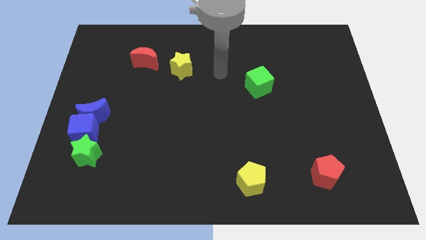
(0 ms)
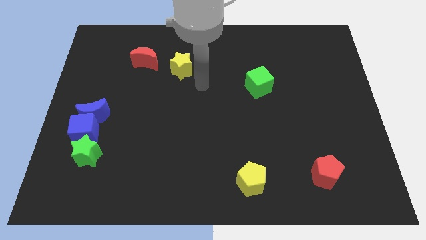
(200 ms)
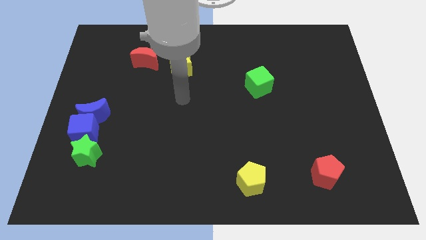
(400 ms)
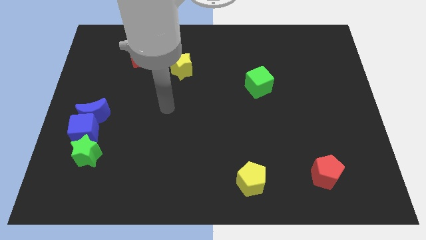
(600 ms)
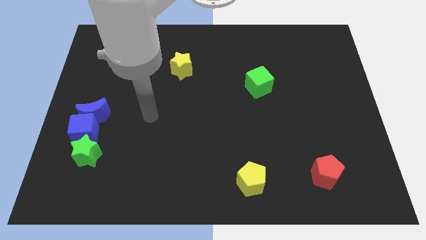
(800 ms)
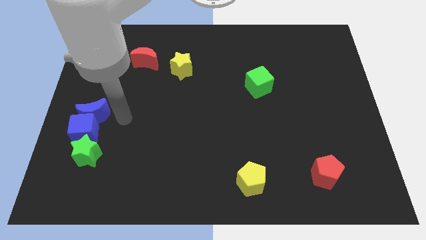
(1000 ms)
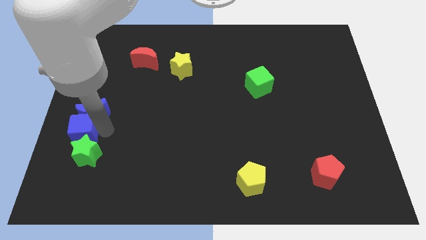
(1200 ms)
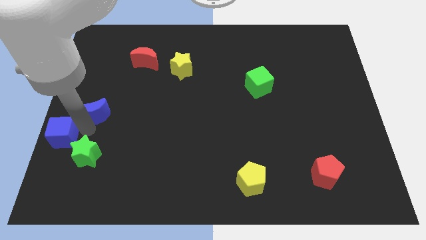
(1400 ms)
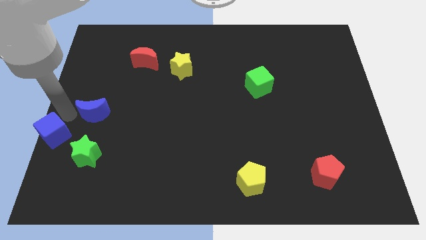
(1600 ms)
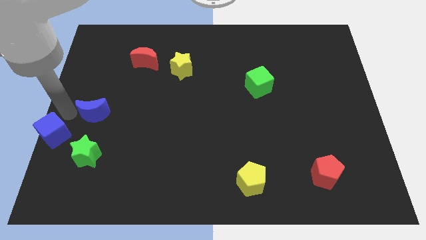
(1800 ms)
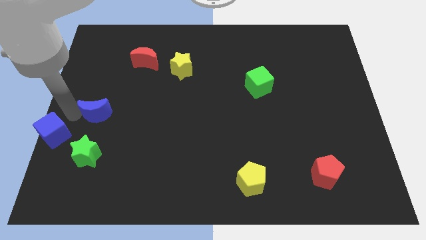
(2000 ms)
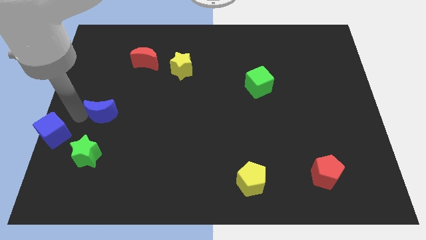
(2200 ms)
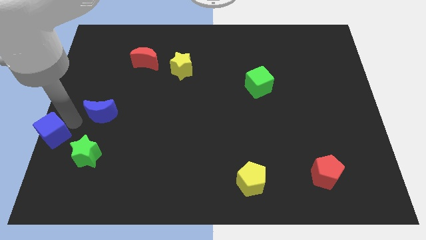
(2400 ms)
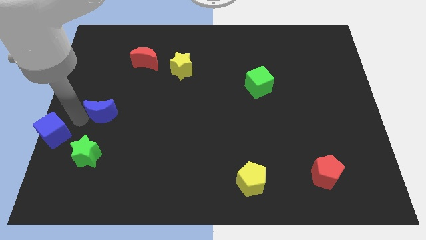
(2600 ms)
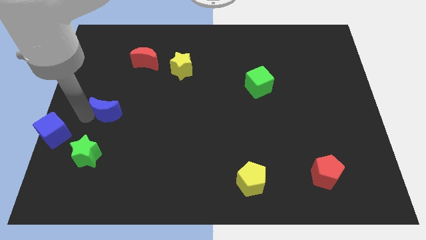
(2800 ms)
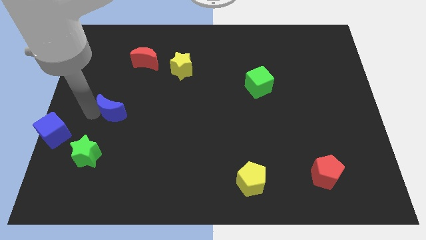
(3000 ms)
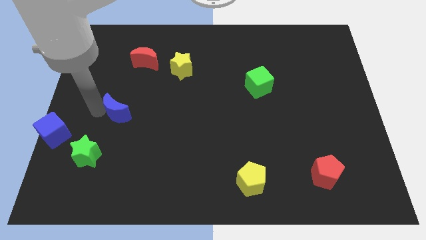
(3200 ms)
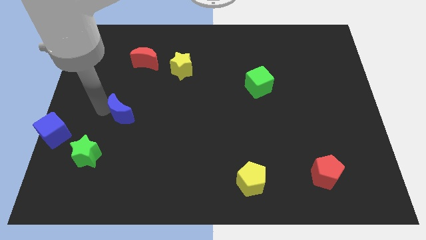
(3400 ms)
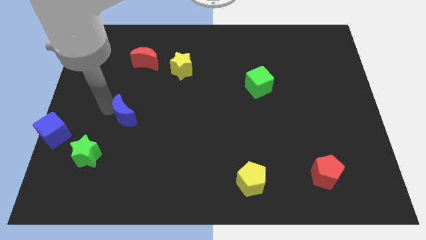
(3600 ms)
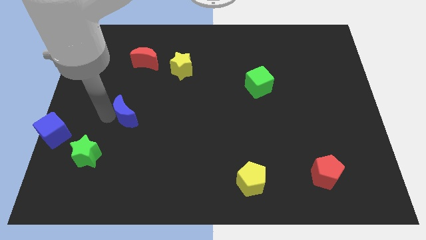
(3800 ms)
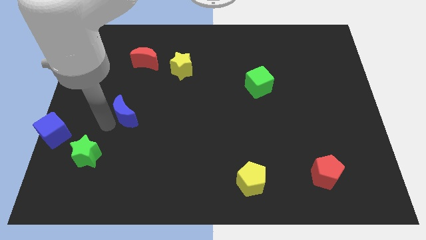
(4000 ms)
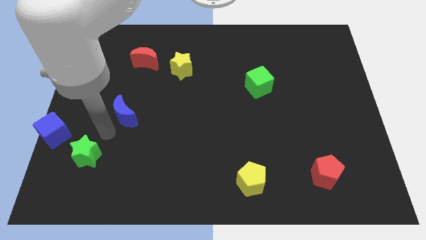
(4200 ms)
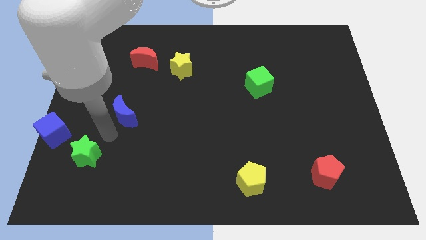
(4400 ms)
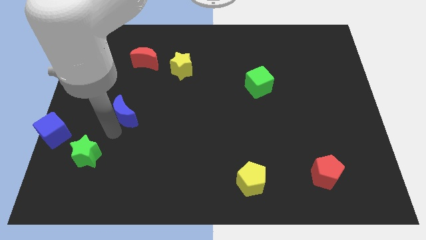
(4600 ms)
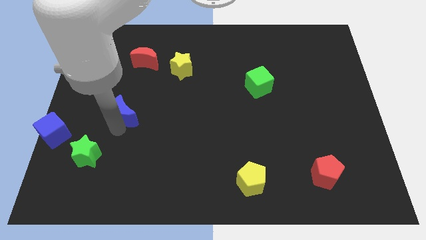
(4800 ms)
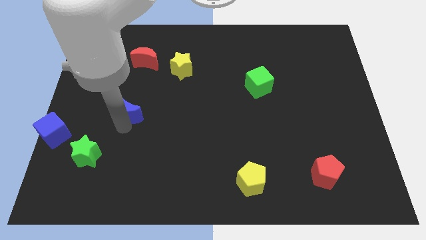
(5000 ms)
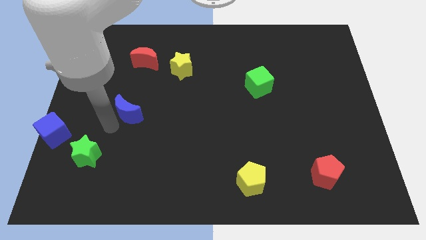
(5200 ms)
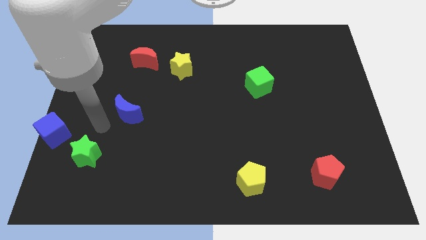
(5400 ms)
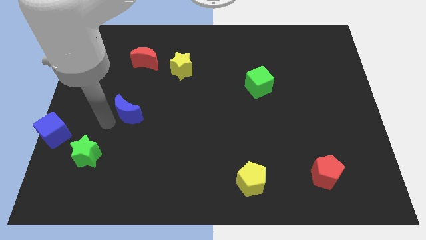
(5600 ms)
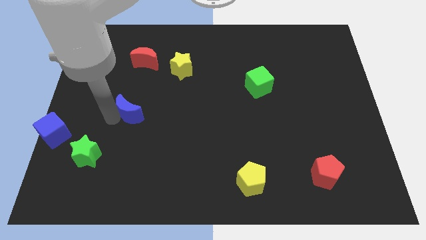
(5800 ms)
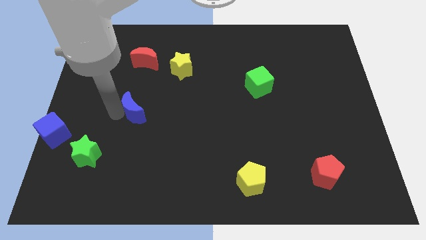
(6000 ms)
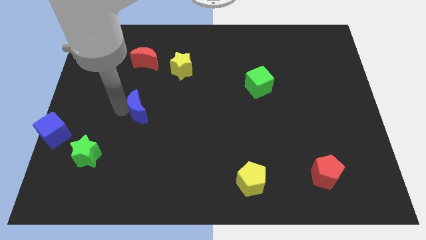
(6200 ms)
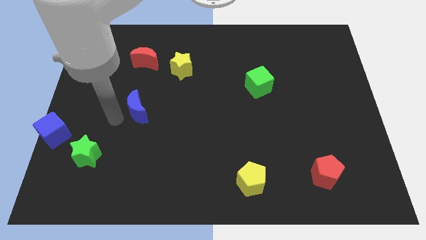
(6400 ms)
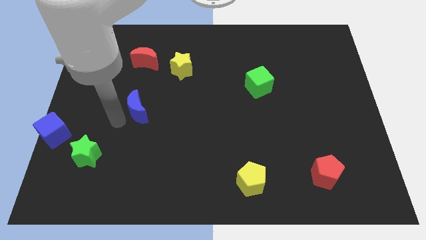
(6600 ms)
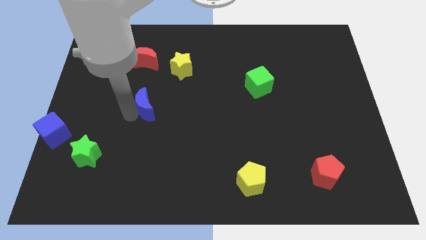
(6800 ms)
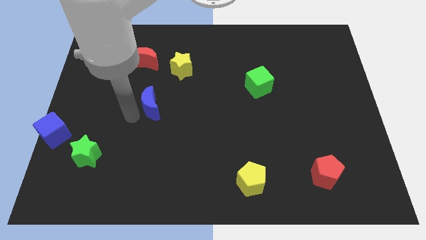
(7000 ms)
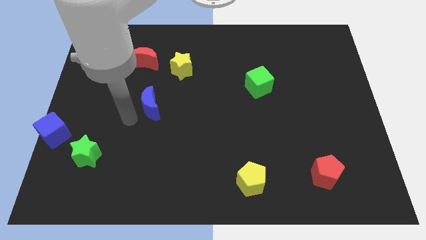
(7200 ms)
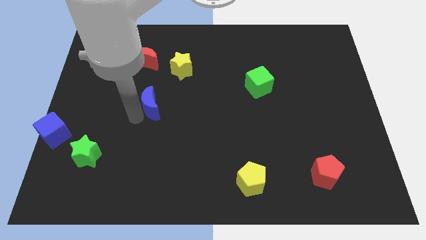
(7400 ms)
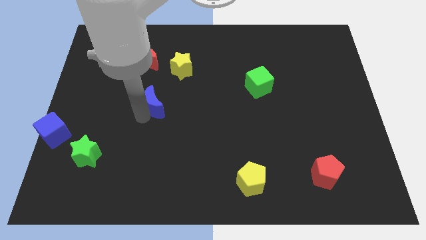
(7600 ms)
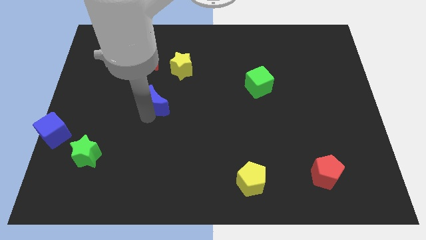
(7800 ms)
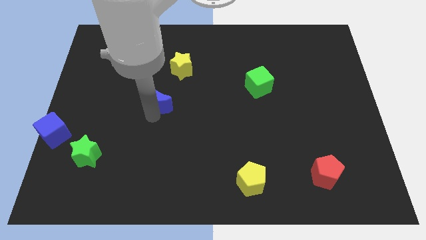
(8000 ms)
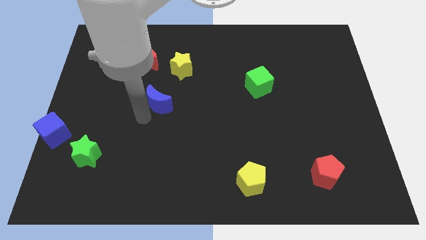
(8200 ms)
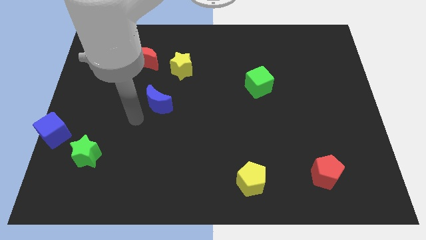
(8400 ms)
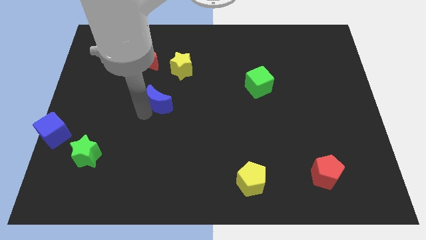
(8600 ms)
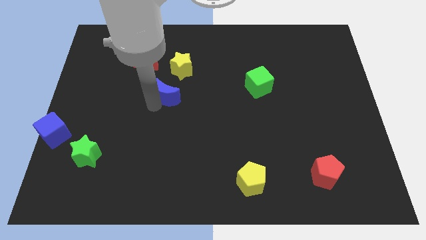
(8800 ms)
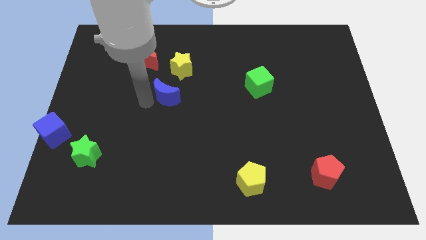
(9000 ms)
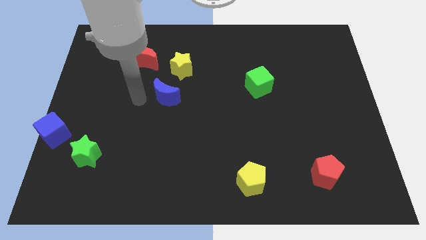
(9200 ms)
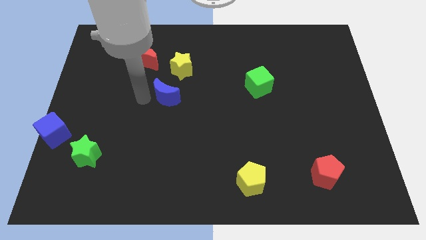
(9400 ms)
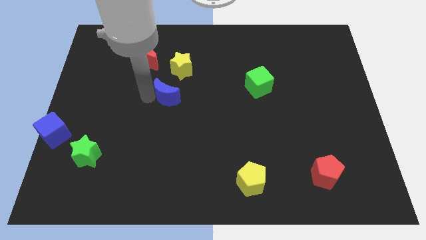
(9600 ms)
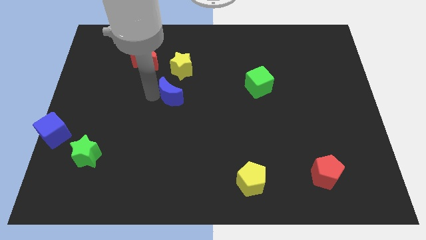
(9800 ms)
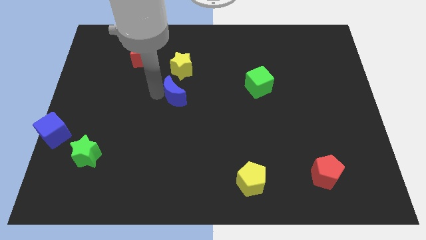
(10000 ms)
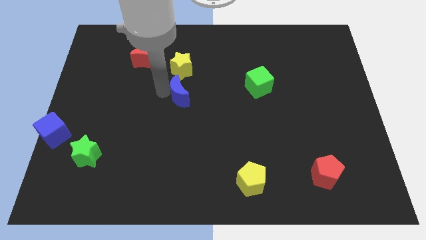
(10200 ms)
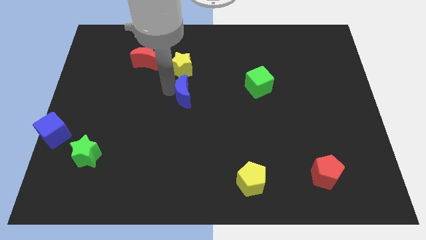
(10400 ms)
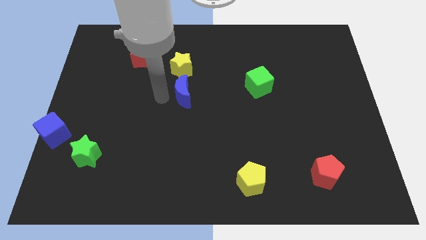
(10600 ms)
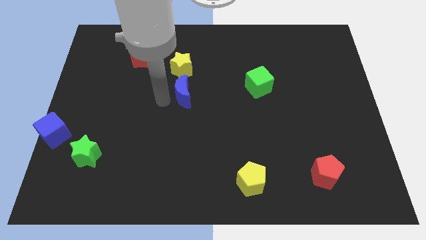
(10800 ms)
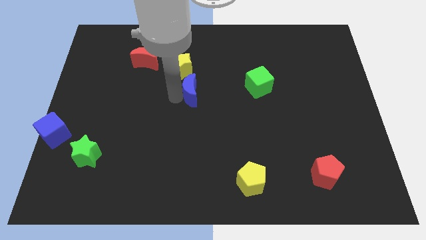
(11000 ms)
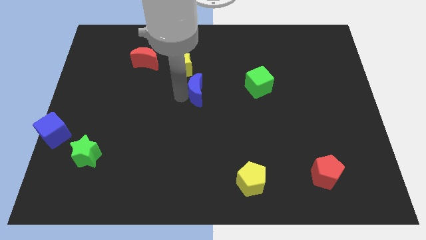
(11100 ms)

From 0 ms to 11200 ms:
move the blue moon left of the green cube

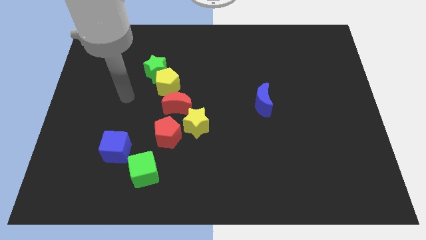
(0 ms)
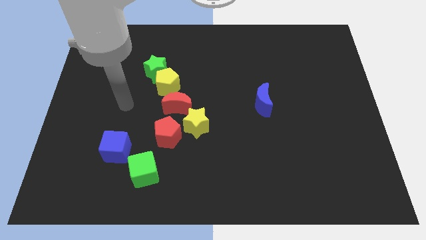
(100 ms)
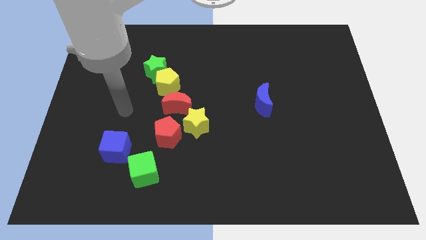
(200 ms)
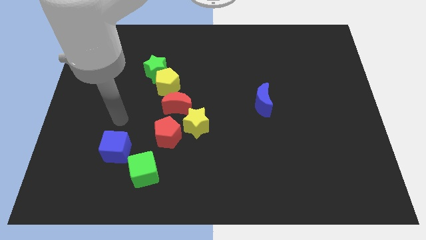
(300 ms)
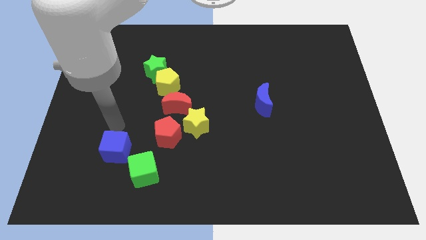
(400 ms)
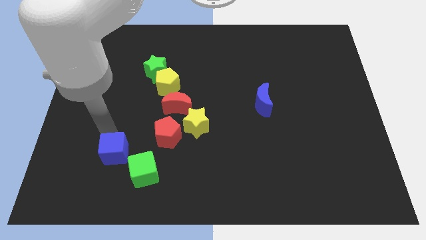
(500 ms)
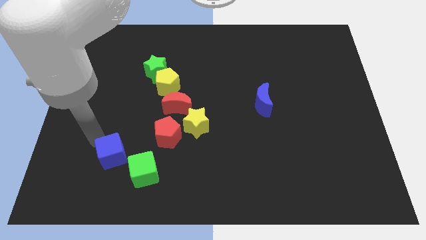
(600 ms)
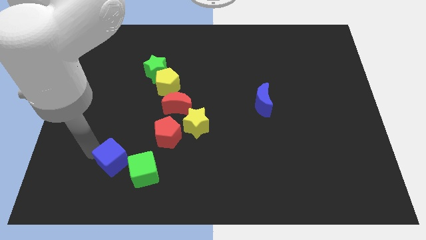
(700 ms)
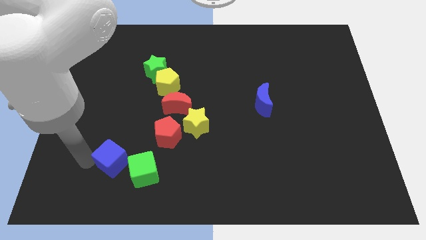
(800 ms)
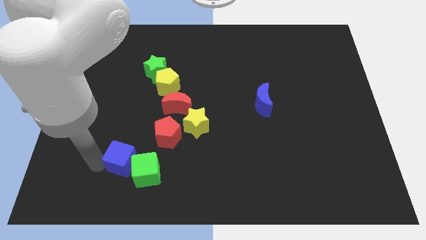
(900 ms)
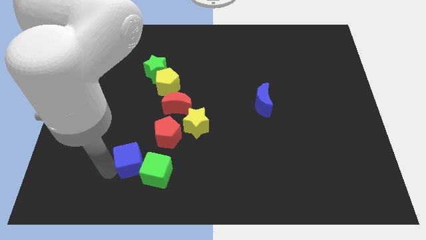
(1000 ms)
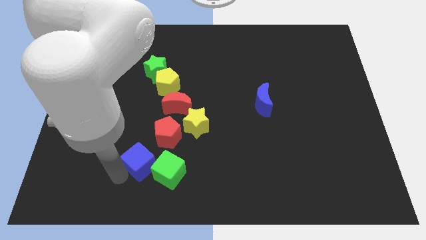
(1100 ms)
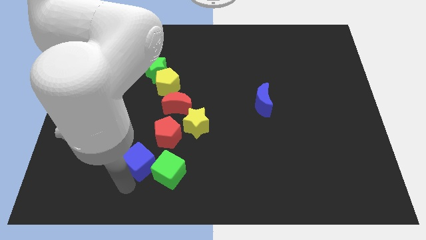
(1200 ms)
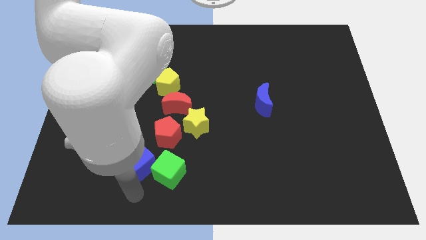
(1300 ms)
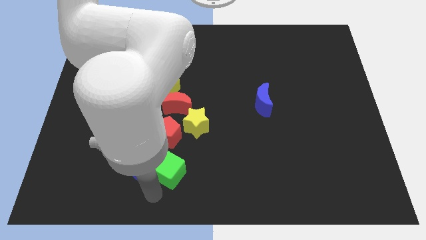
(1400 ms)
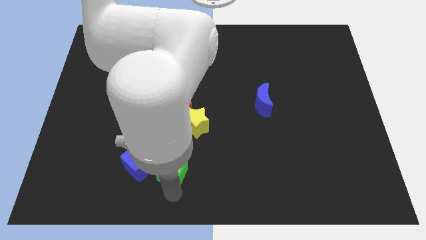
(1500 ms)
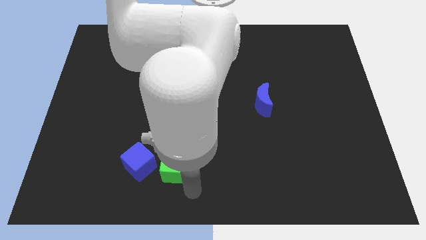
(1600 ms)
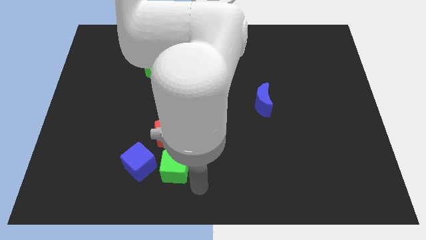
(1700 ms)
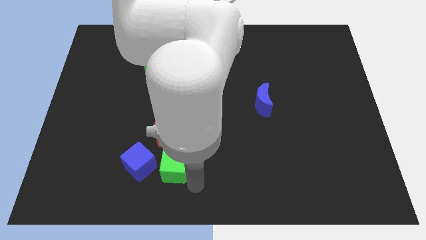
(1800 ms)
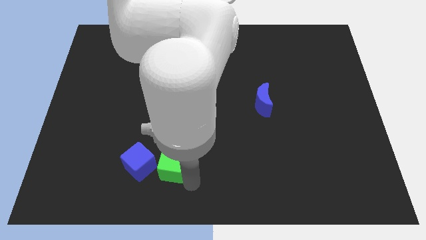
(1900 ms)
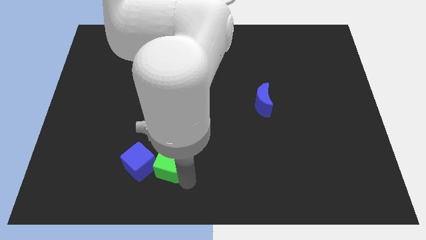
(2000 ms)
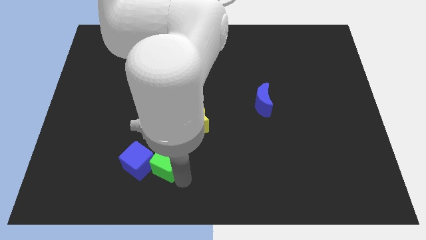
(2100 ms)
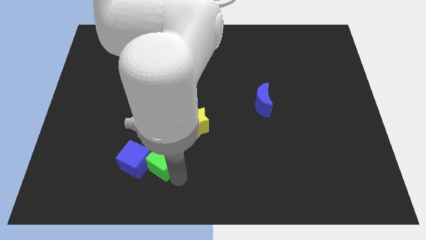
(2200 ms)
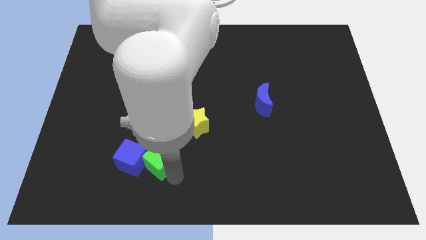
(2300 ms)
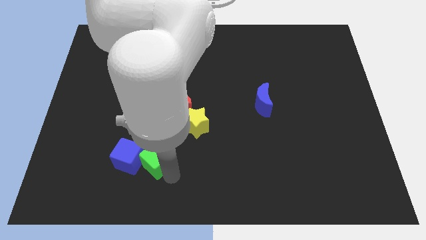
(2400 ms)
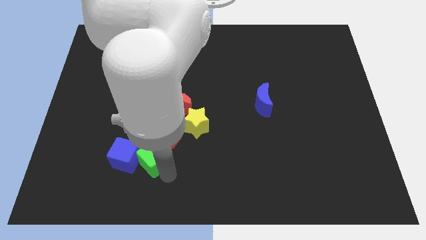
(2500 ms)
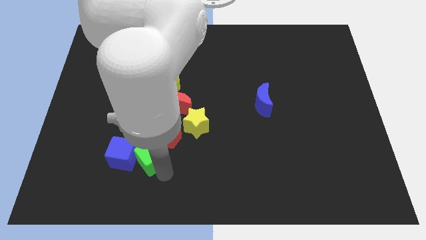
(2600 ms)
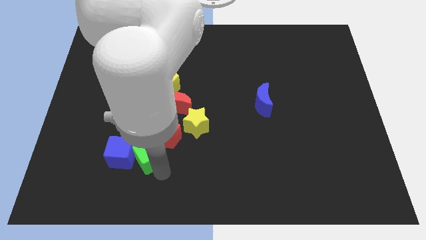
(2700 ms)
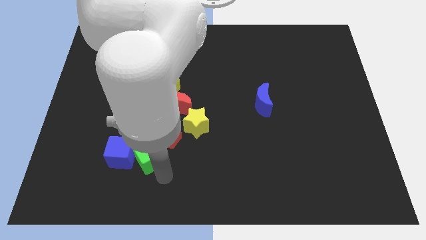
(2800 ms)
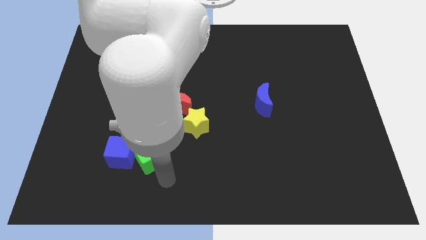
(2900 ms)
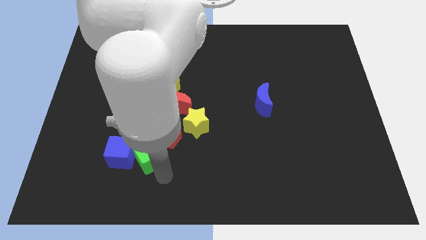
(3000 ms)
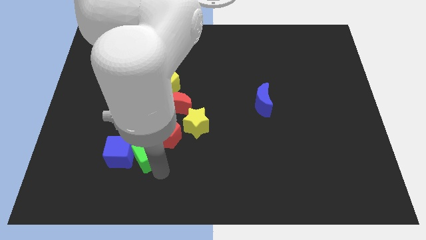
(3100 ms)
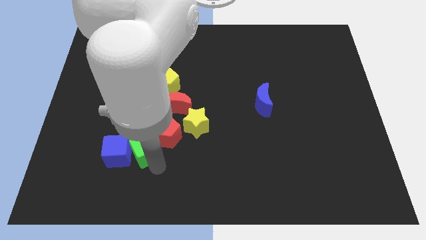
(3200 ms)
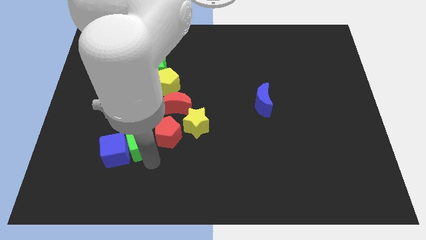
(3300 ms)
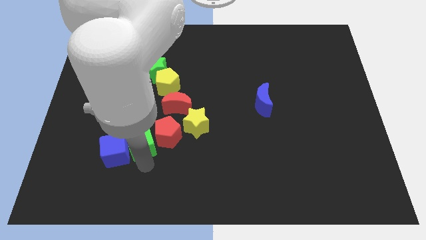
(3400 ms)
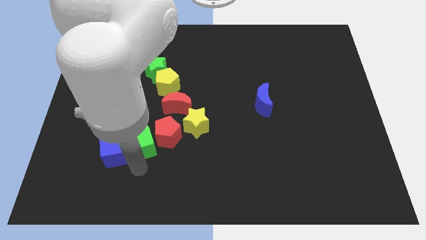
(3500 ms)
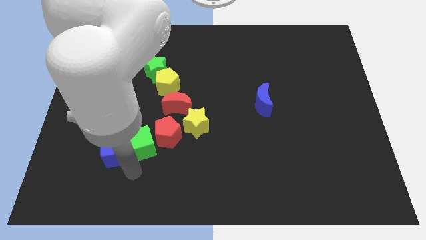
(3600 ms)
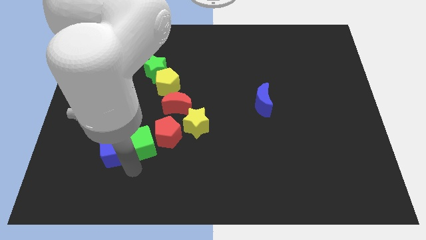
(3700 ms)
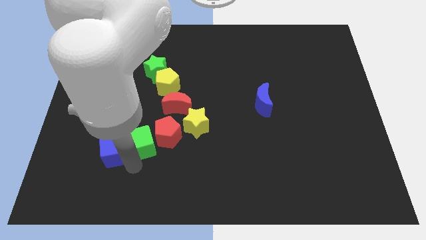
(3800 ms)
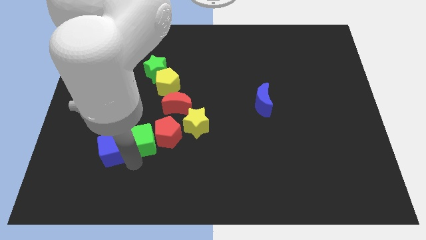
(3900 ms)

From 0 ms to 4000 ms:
put the green cube to the left of the yellow star
